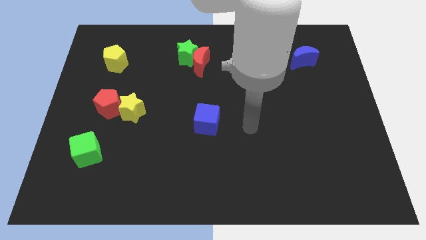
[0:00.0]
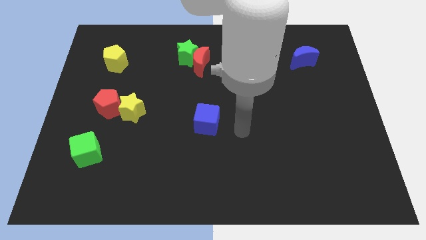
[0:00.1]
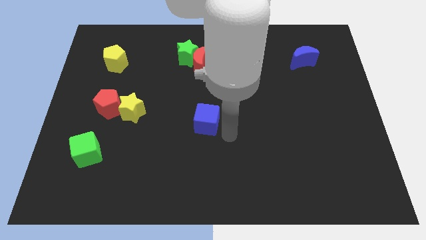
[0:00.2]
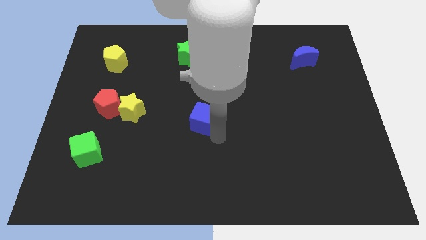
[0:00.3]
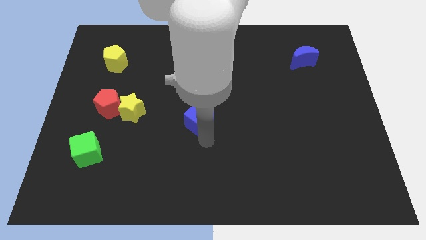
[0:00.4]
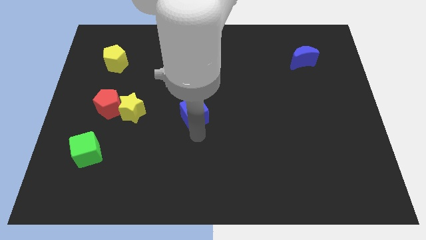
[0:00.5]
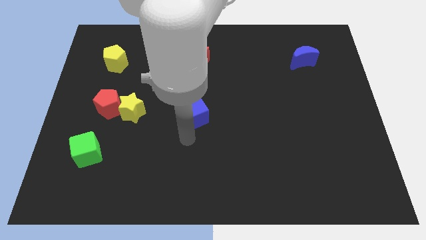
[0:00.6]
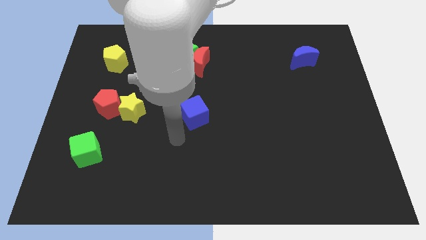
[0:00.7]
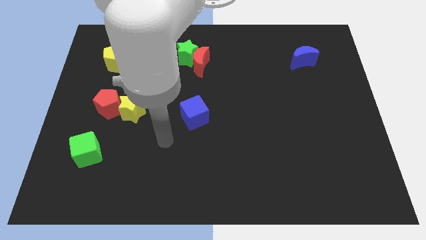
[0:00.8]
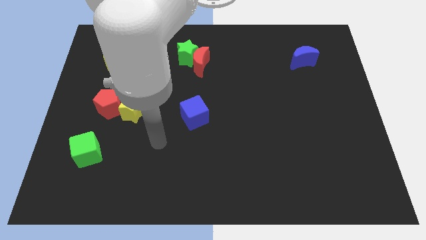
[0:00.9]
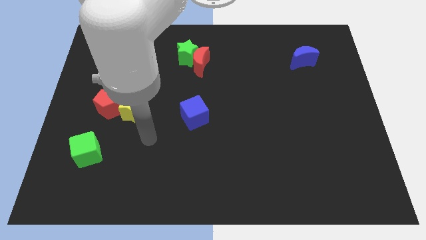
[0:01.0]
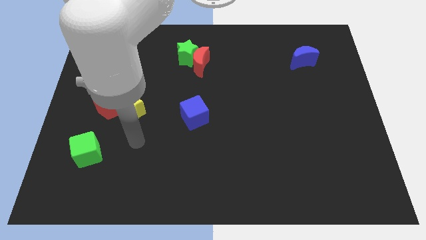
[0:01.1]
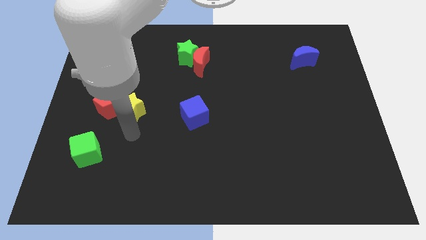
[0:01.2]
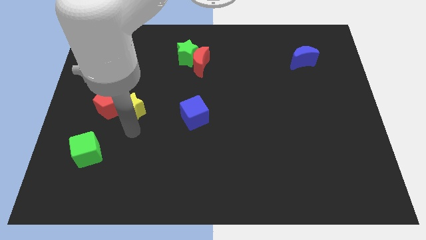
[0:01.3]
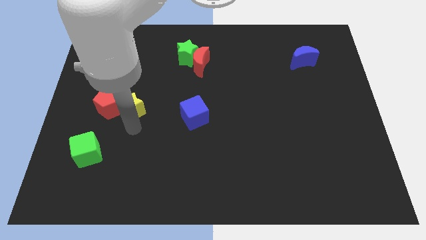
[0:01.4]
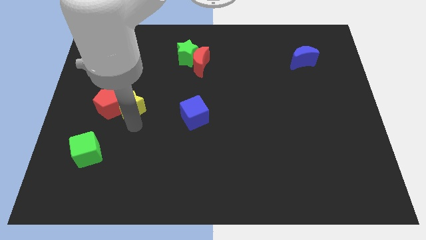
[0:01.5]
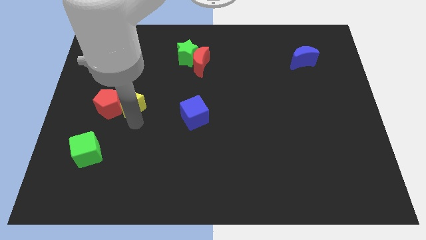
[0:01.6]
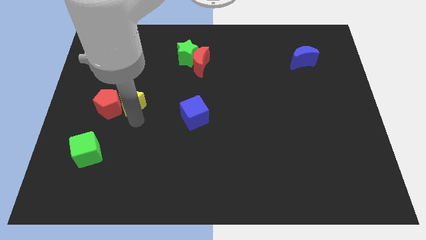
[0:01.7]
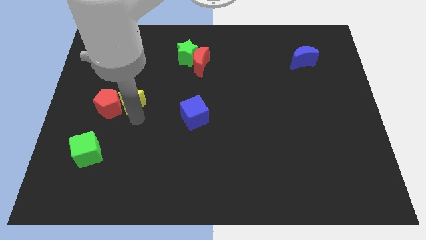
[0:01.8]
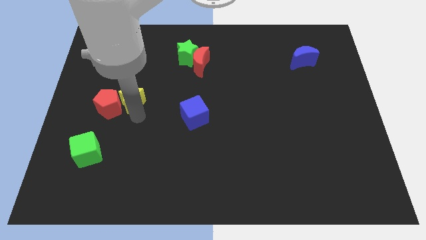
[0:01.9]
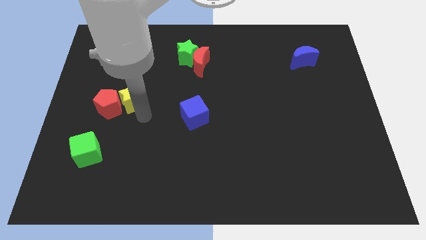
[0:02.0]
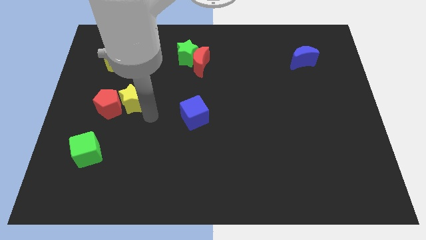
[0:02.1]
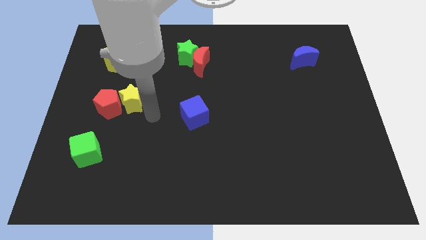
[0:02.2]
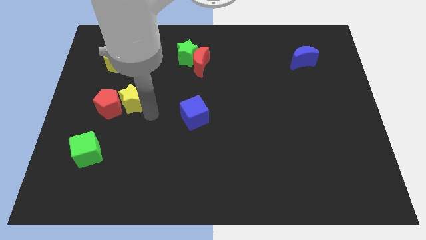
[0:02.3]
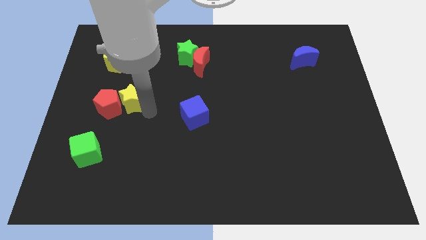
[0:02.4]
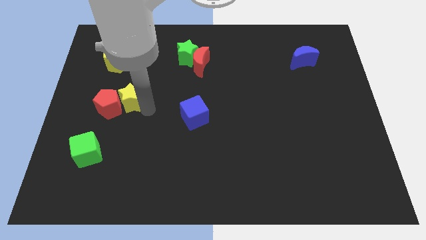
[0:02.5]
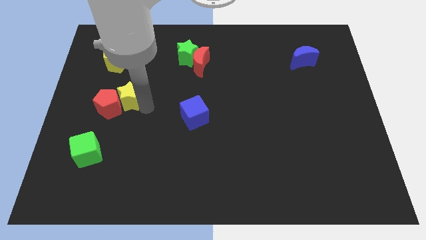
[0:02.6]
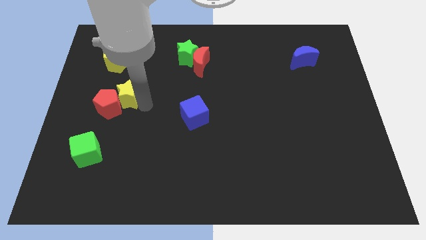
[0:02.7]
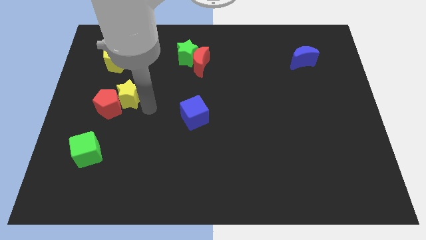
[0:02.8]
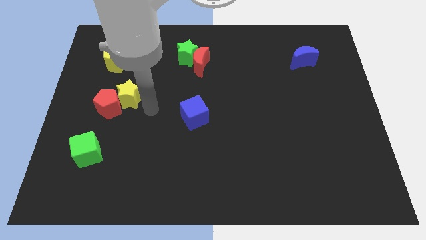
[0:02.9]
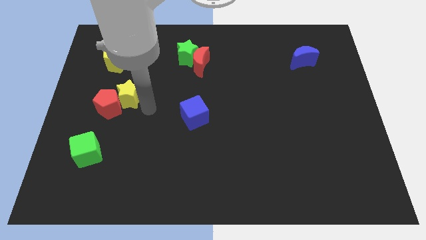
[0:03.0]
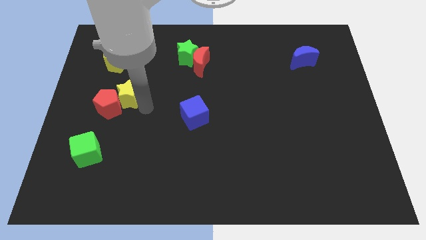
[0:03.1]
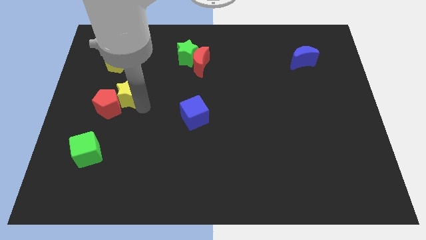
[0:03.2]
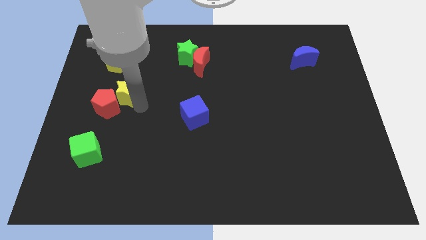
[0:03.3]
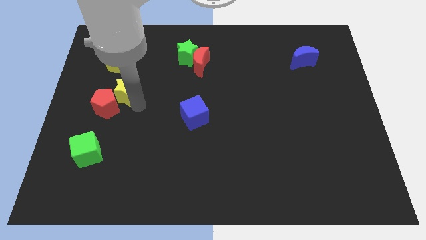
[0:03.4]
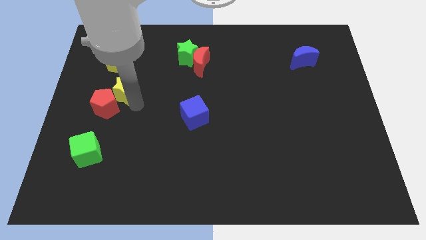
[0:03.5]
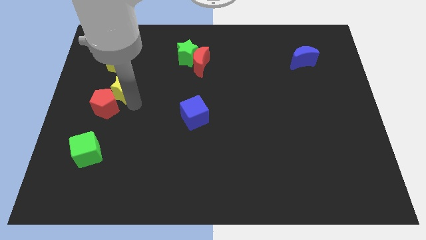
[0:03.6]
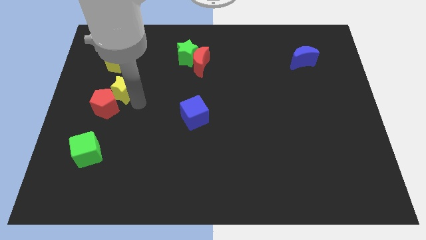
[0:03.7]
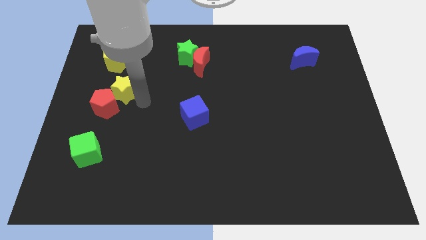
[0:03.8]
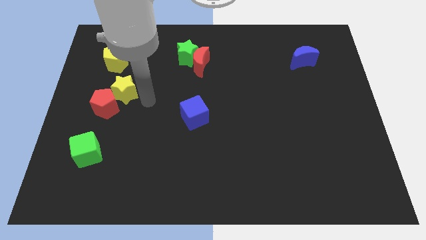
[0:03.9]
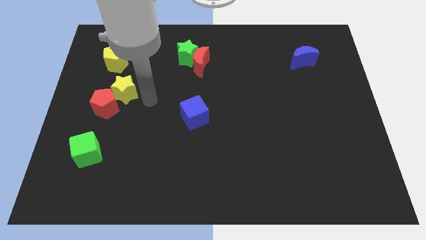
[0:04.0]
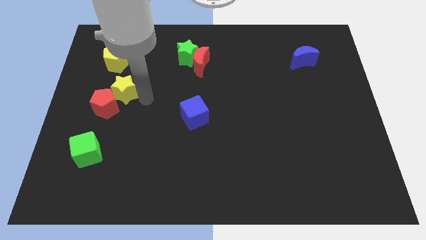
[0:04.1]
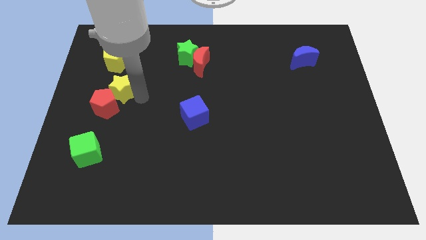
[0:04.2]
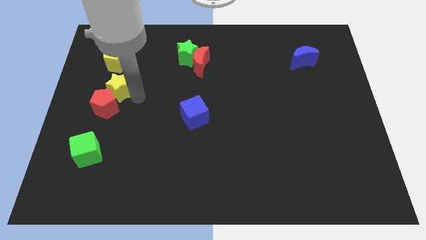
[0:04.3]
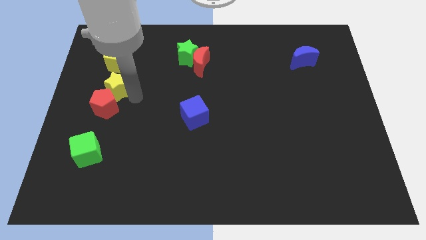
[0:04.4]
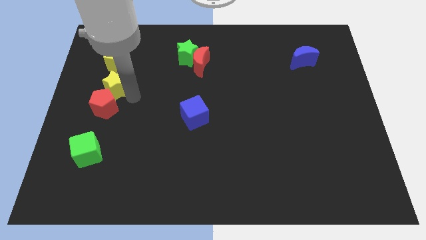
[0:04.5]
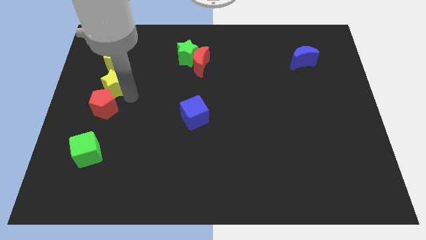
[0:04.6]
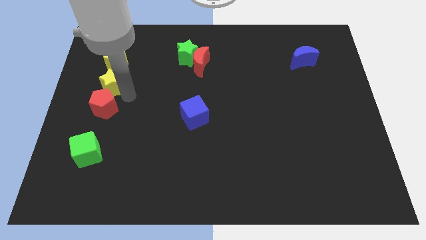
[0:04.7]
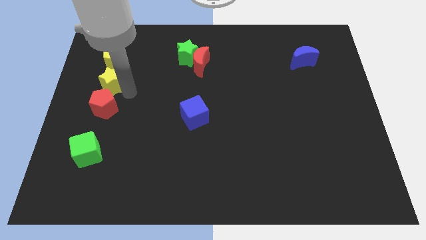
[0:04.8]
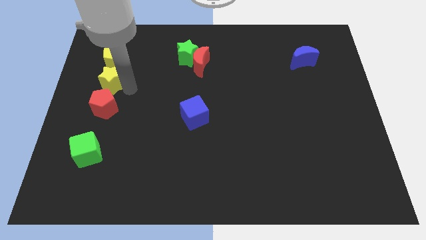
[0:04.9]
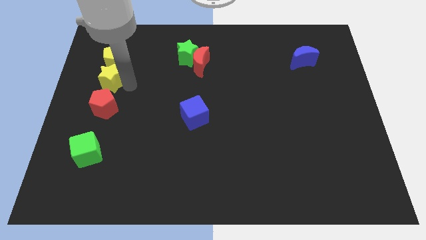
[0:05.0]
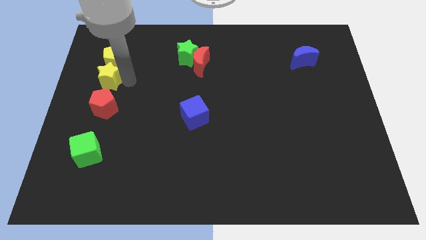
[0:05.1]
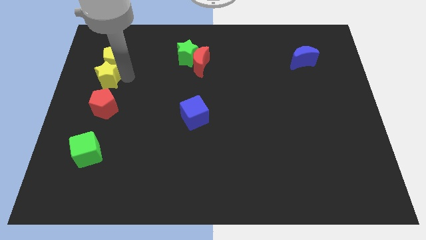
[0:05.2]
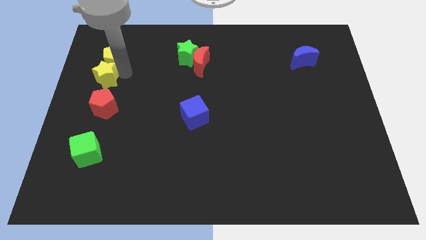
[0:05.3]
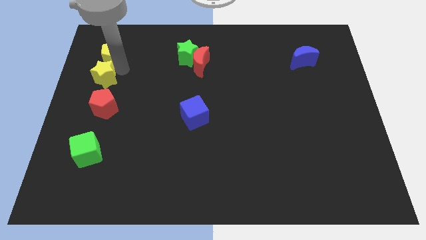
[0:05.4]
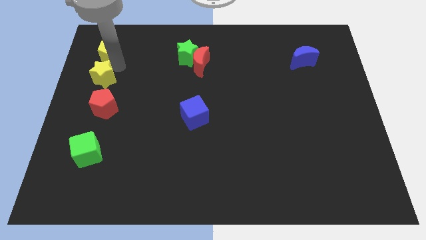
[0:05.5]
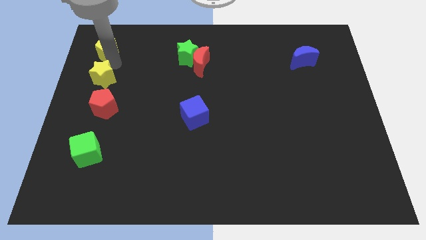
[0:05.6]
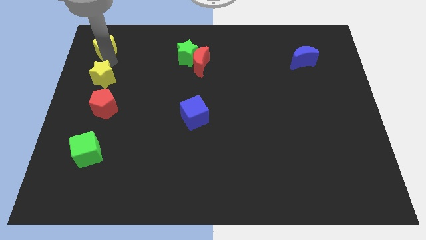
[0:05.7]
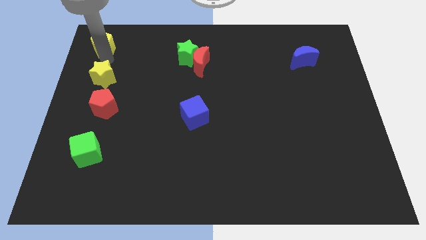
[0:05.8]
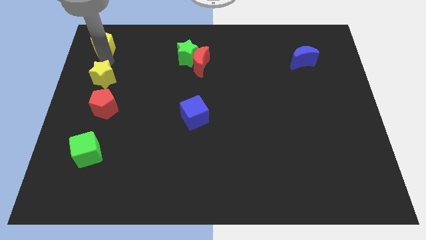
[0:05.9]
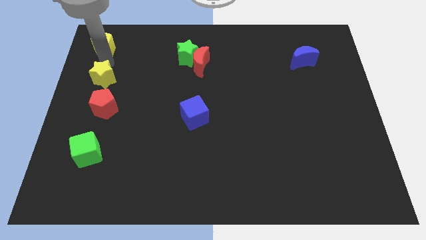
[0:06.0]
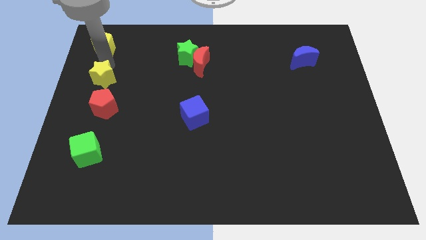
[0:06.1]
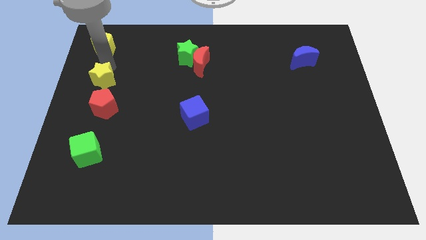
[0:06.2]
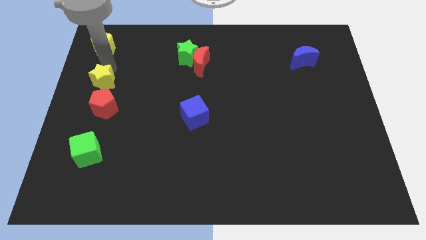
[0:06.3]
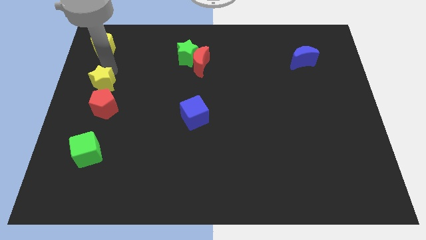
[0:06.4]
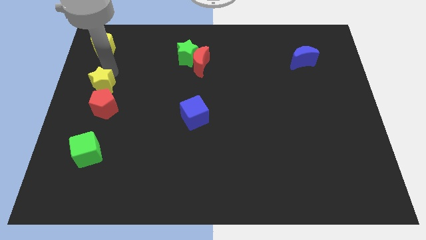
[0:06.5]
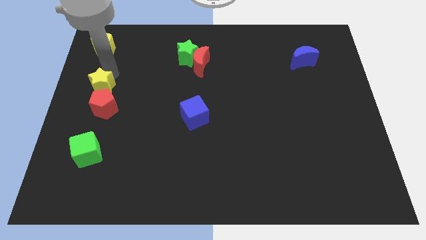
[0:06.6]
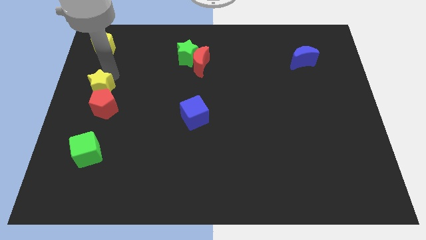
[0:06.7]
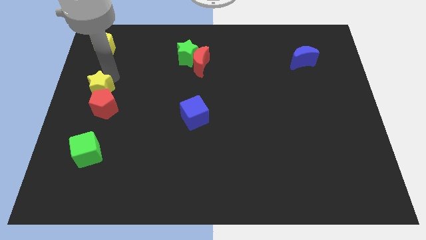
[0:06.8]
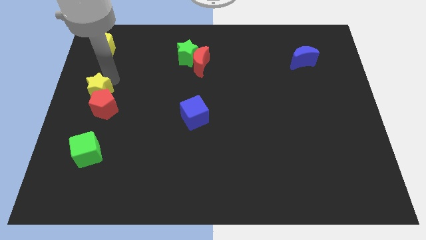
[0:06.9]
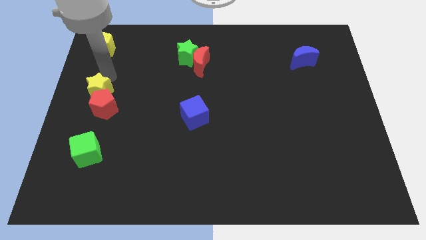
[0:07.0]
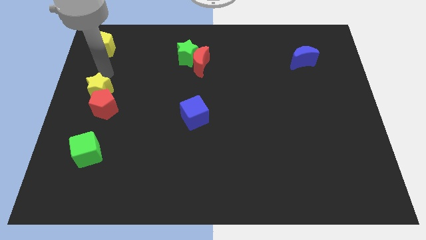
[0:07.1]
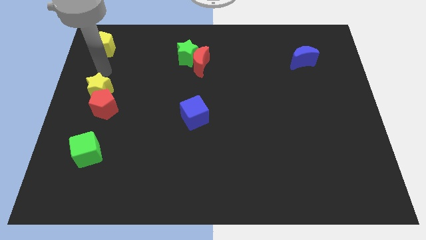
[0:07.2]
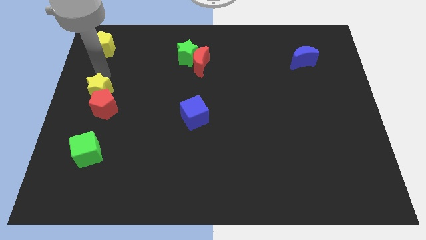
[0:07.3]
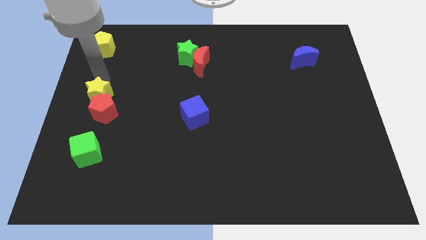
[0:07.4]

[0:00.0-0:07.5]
put the yellow star to the top of the green cube
